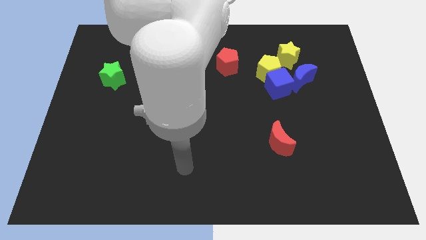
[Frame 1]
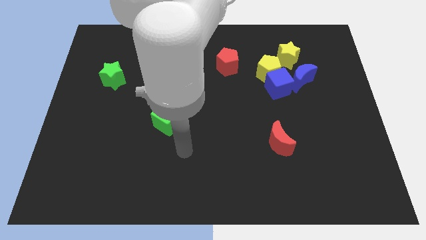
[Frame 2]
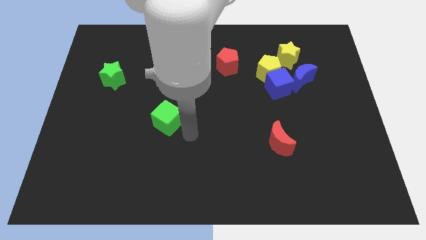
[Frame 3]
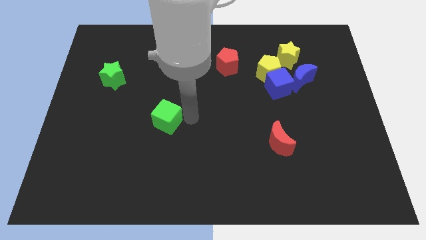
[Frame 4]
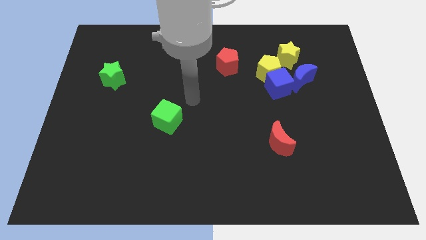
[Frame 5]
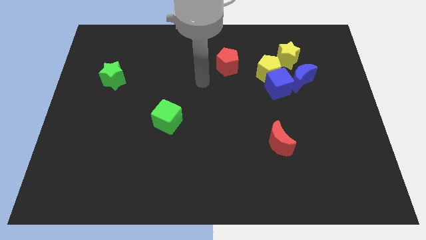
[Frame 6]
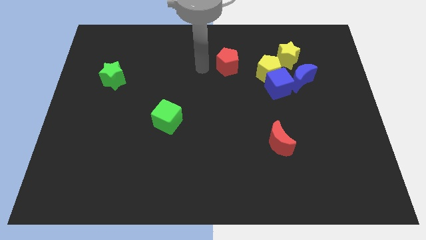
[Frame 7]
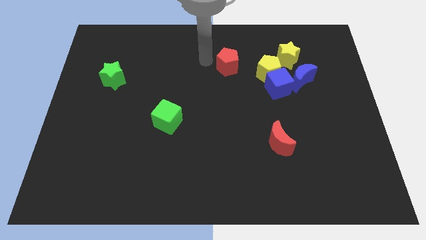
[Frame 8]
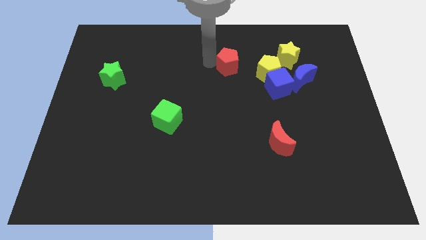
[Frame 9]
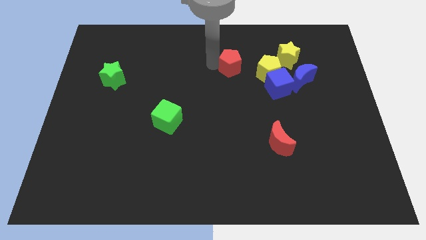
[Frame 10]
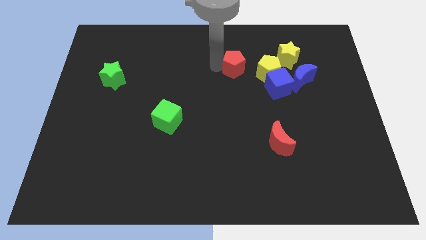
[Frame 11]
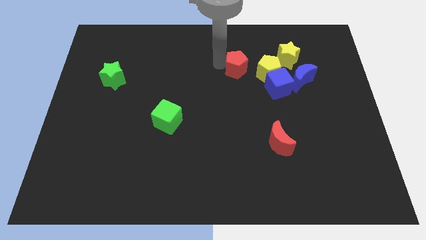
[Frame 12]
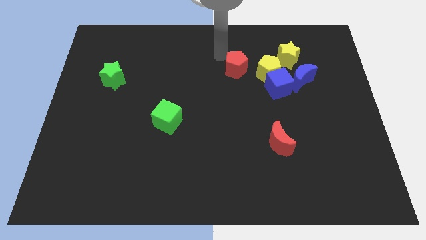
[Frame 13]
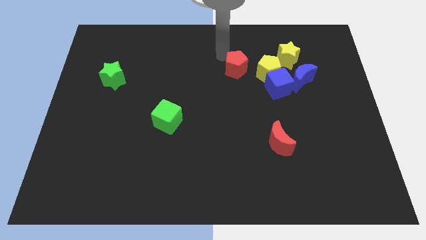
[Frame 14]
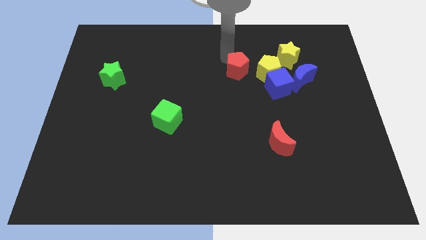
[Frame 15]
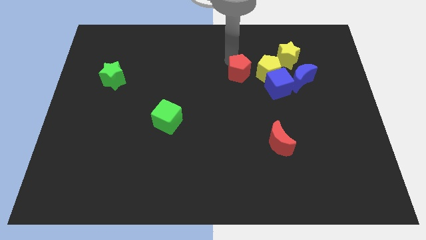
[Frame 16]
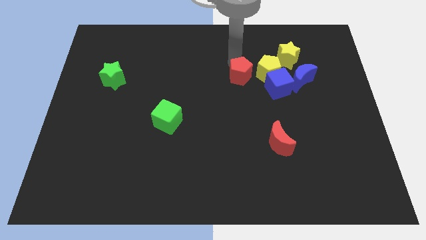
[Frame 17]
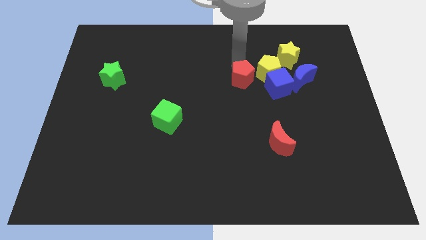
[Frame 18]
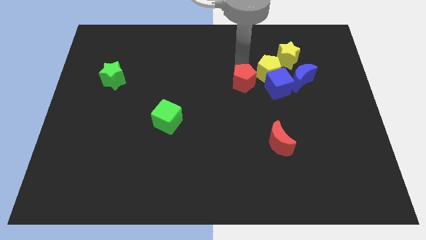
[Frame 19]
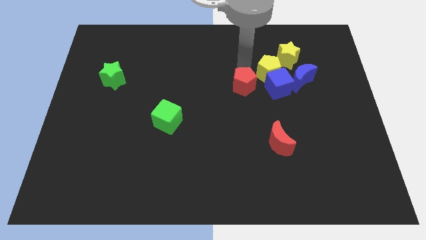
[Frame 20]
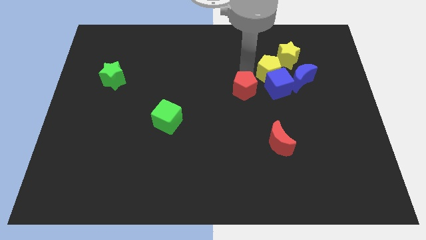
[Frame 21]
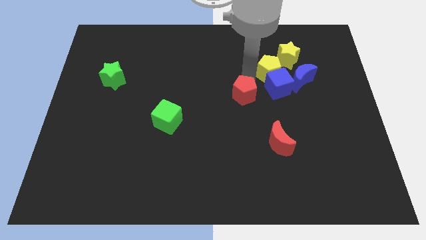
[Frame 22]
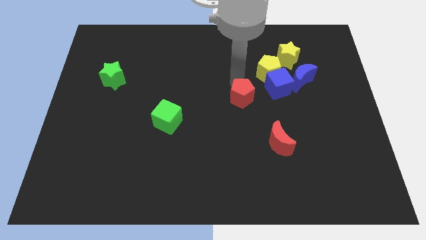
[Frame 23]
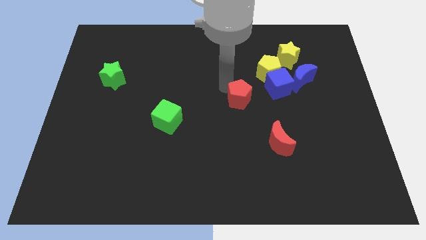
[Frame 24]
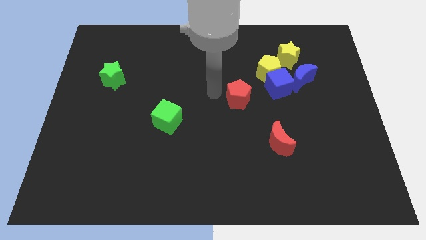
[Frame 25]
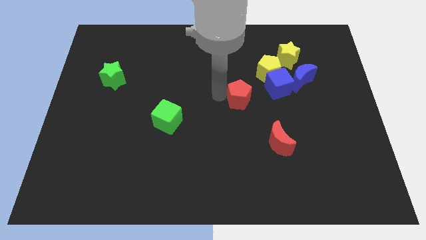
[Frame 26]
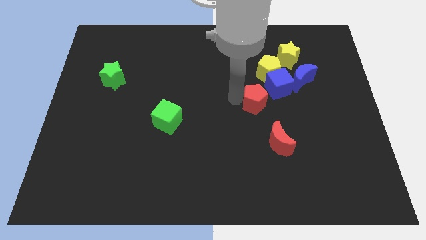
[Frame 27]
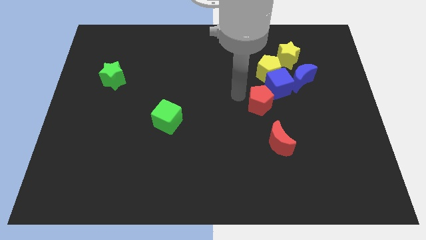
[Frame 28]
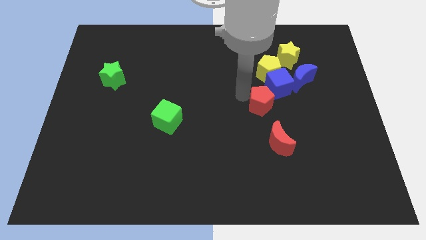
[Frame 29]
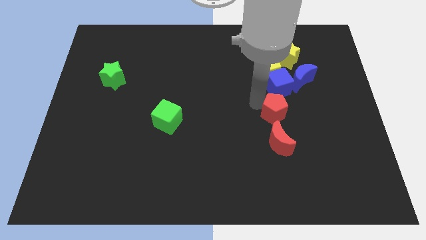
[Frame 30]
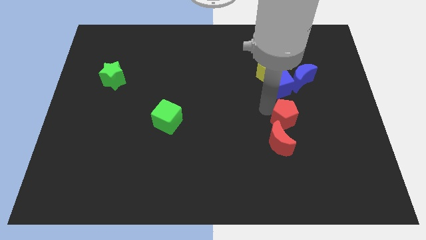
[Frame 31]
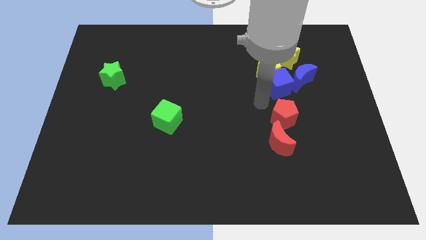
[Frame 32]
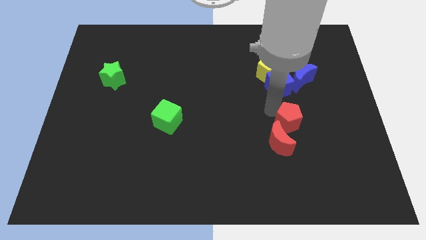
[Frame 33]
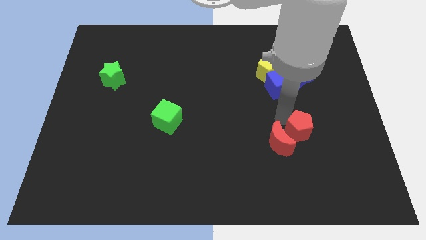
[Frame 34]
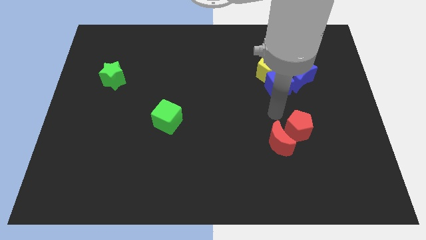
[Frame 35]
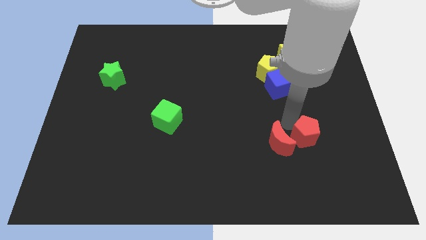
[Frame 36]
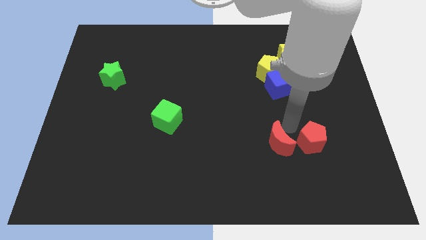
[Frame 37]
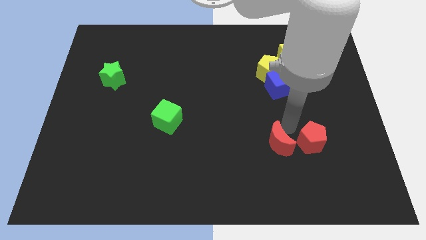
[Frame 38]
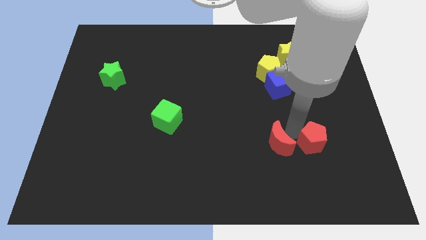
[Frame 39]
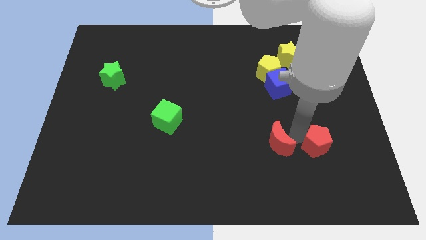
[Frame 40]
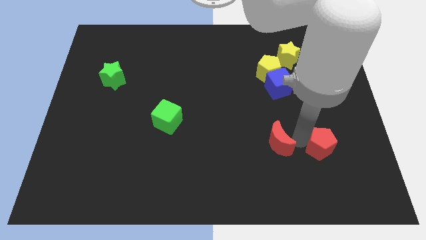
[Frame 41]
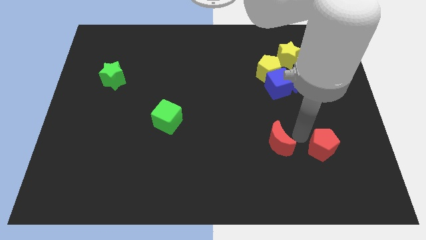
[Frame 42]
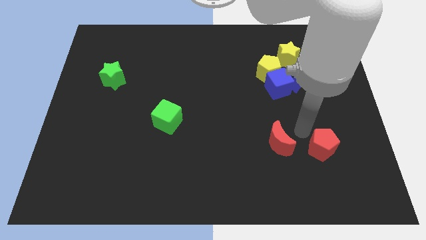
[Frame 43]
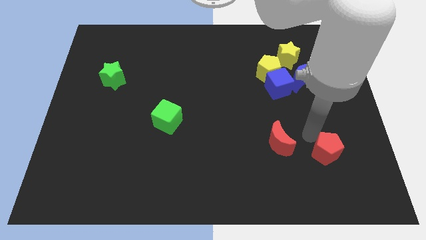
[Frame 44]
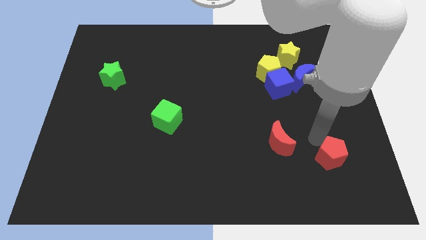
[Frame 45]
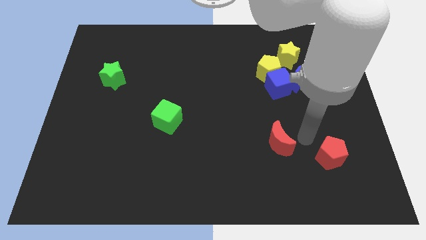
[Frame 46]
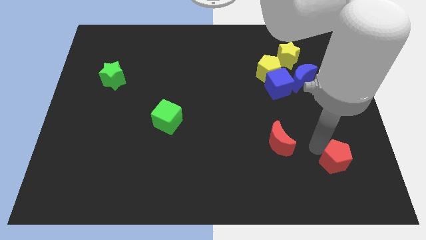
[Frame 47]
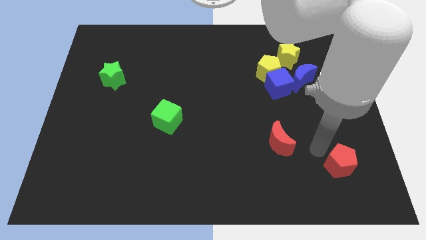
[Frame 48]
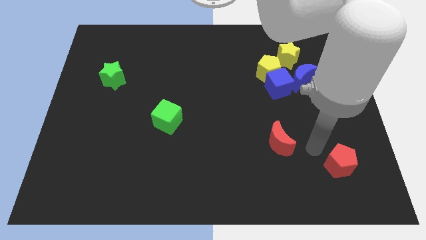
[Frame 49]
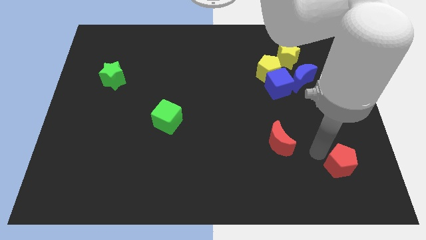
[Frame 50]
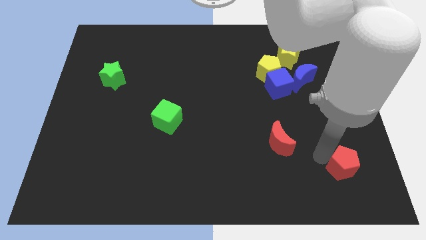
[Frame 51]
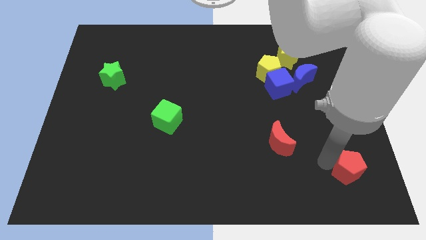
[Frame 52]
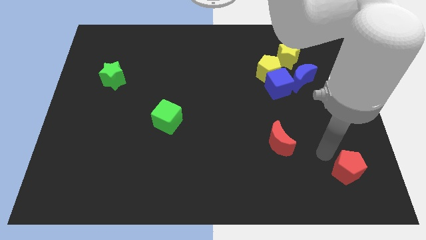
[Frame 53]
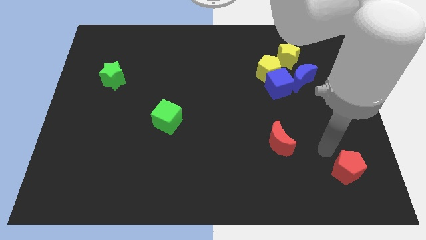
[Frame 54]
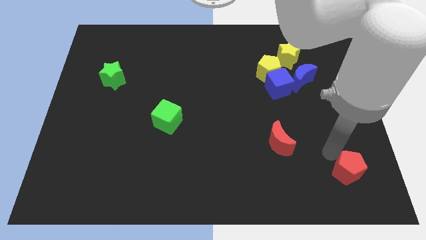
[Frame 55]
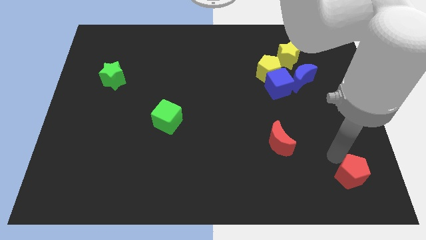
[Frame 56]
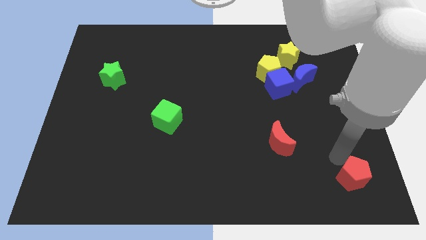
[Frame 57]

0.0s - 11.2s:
put the red pentagon to the lower right corner

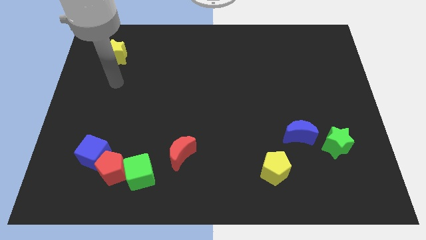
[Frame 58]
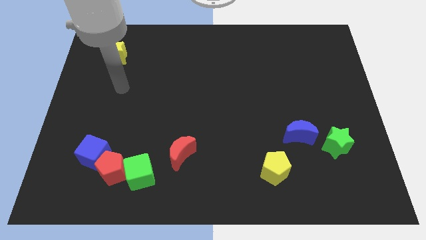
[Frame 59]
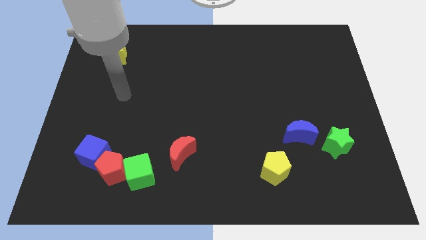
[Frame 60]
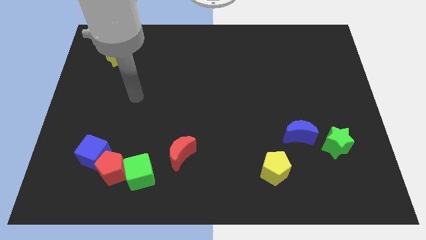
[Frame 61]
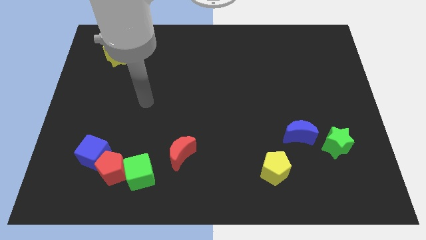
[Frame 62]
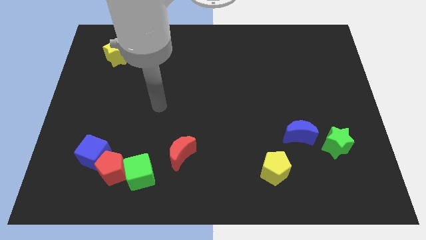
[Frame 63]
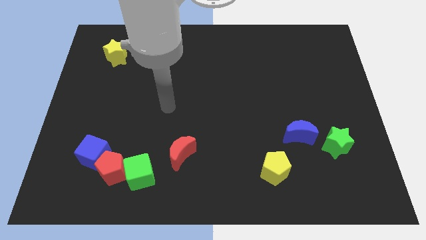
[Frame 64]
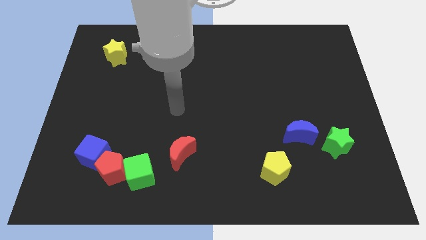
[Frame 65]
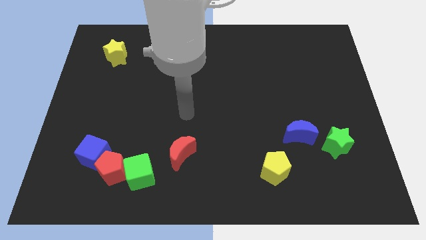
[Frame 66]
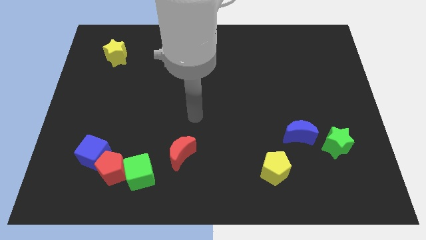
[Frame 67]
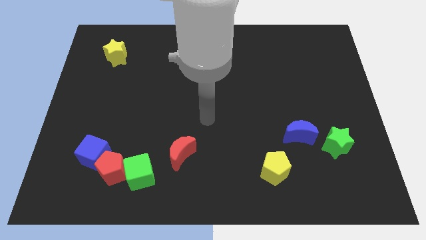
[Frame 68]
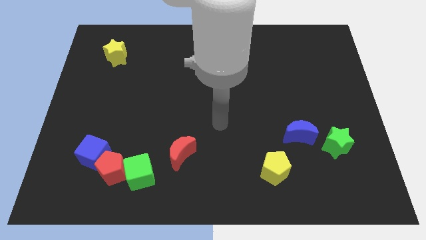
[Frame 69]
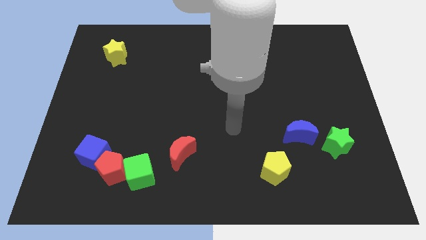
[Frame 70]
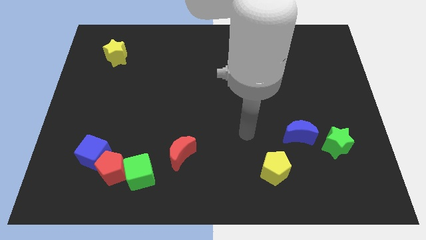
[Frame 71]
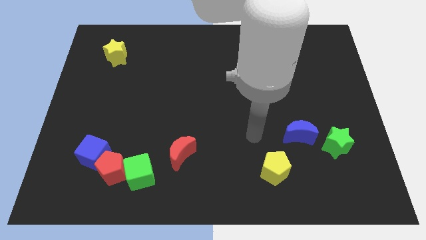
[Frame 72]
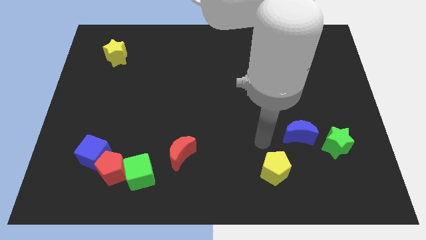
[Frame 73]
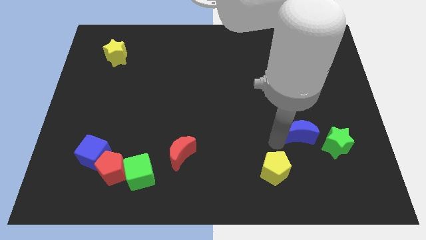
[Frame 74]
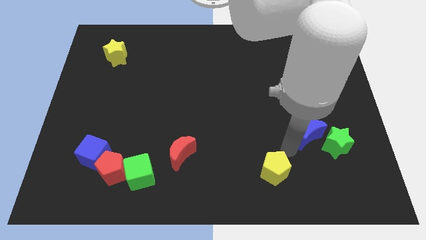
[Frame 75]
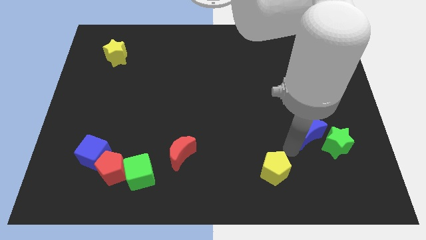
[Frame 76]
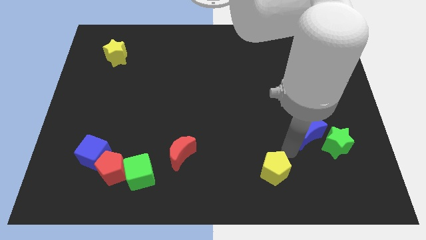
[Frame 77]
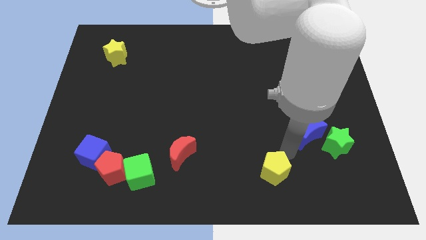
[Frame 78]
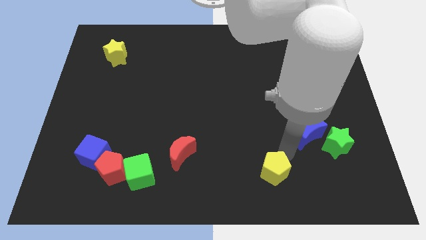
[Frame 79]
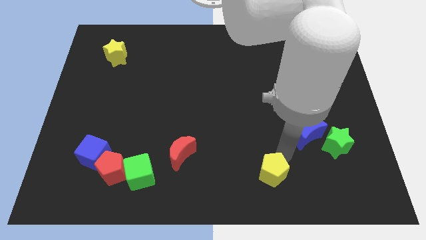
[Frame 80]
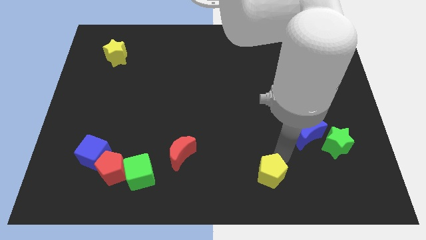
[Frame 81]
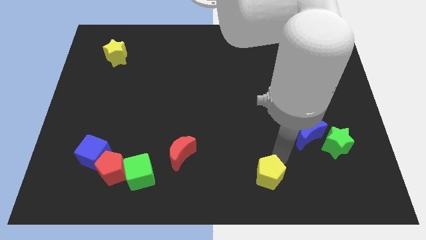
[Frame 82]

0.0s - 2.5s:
push the yellow pentagon to the bottom
